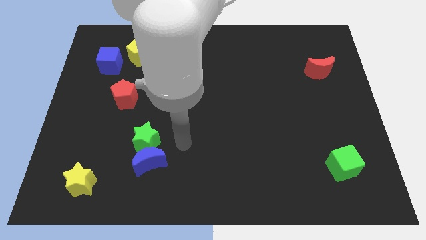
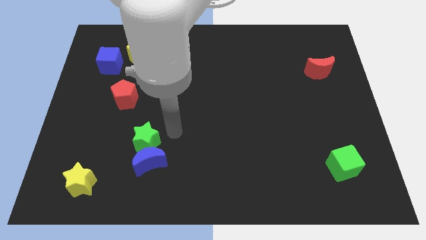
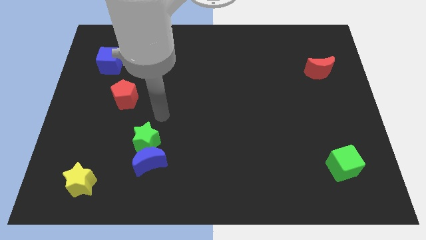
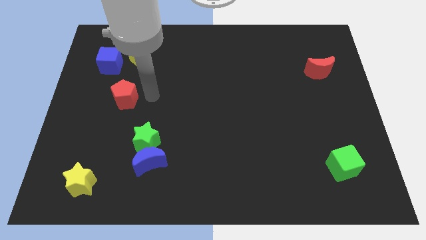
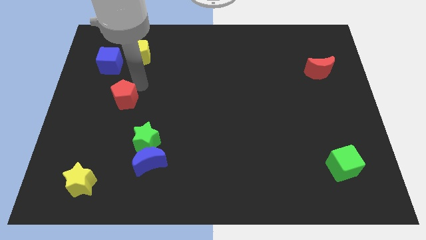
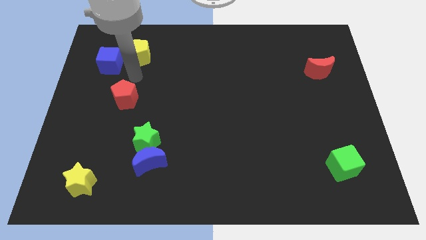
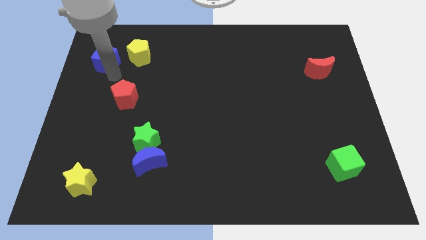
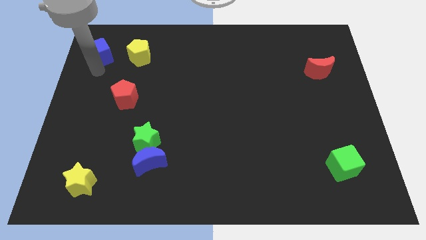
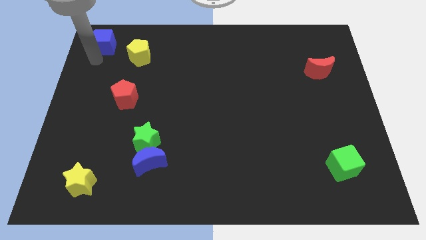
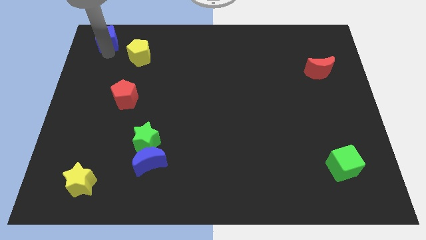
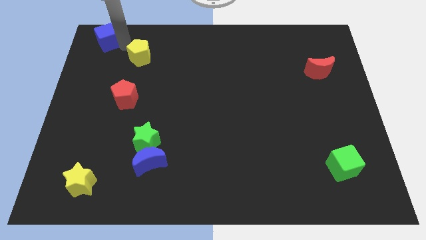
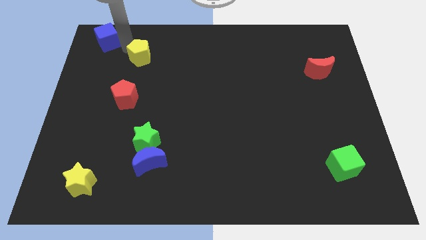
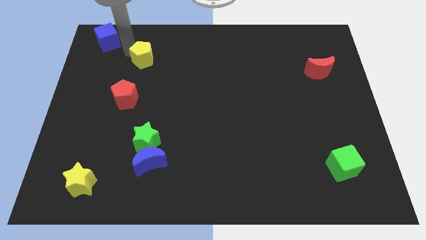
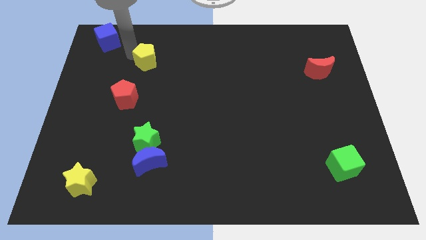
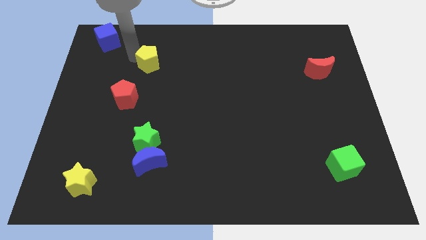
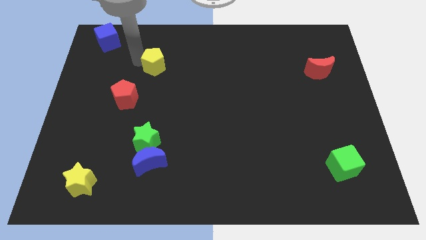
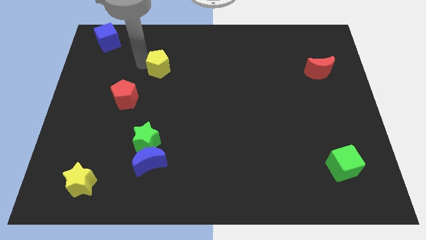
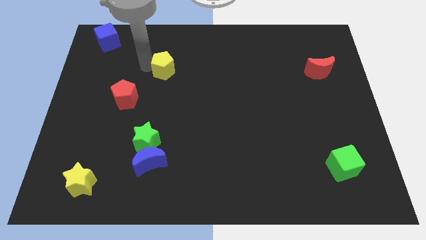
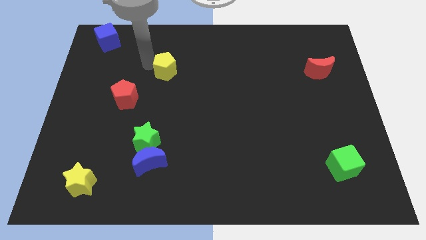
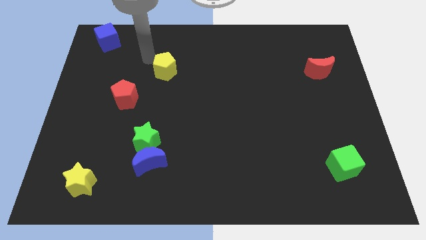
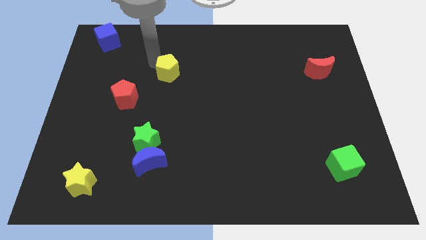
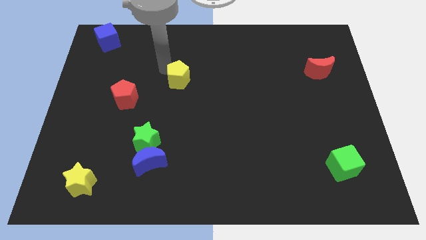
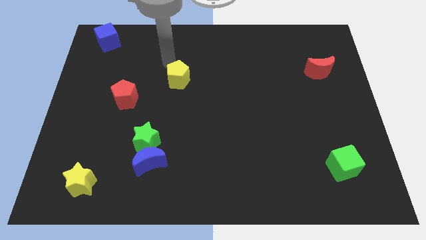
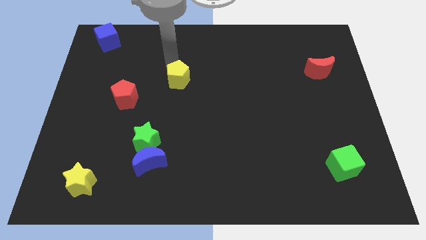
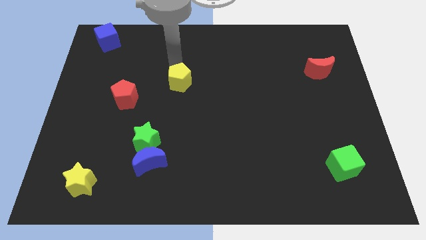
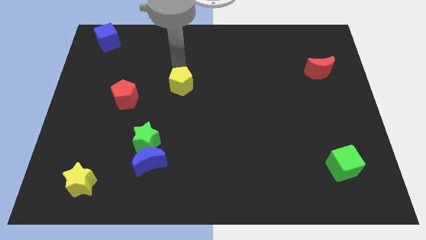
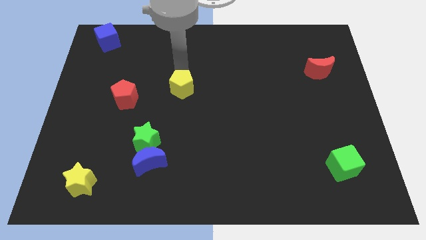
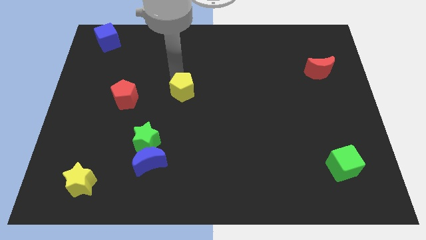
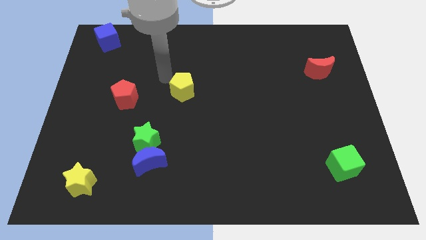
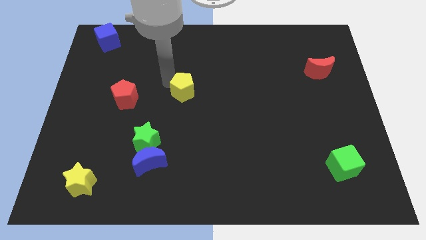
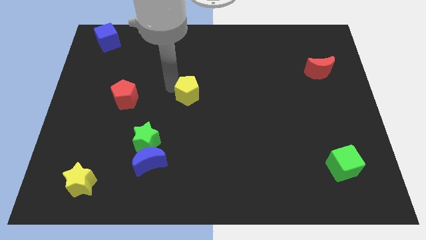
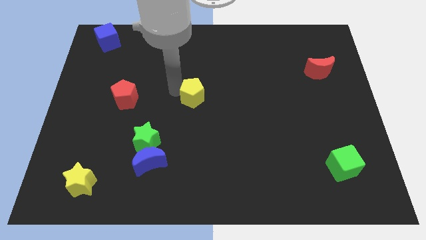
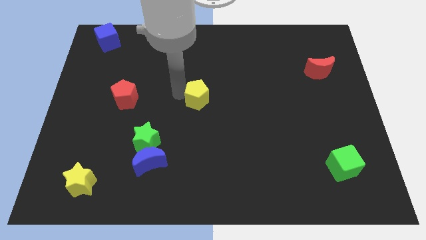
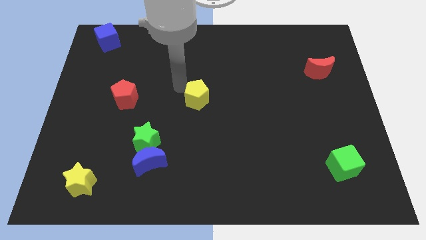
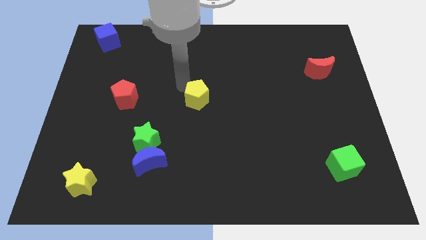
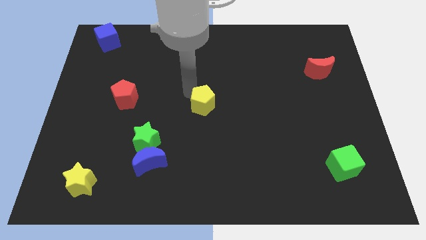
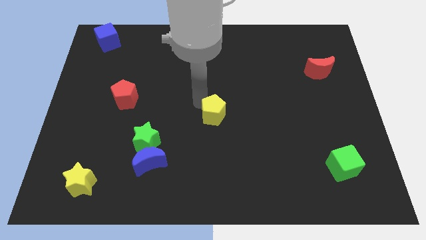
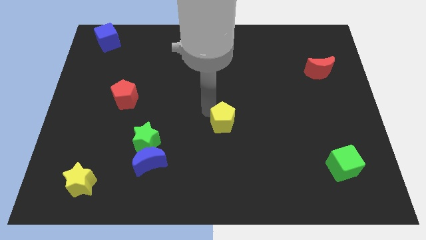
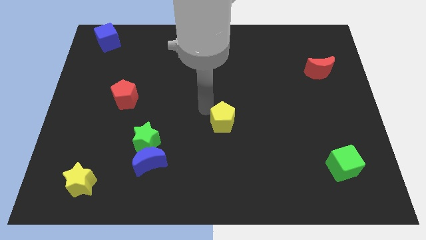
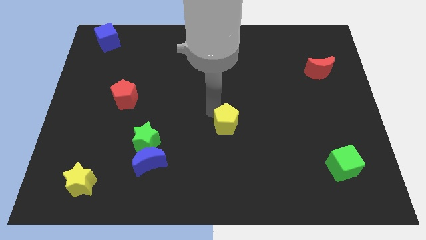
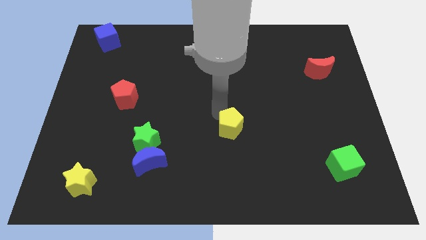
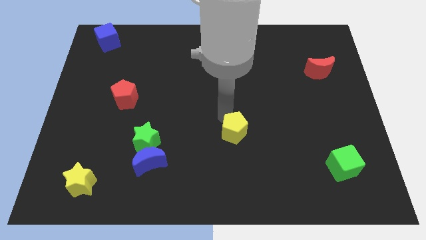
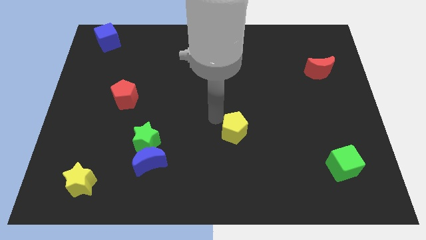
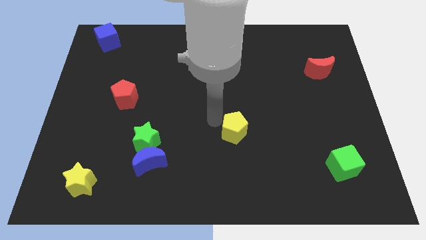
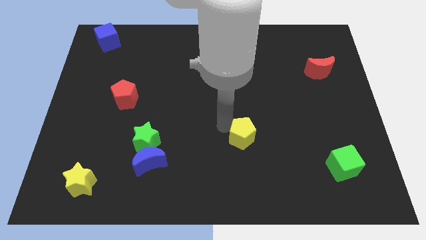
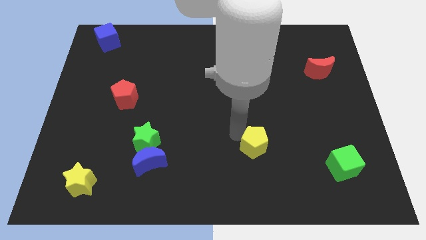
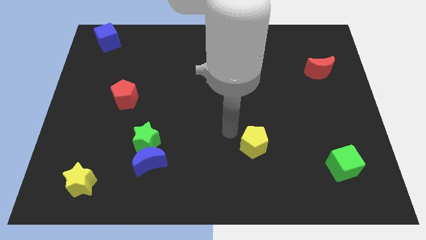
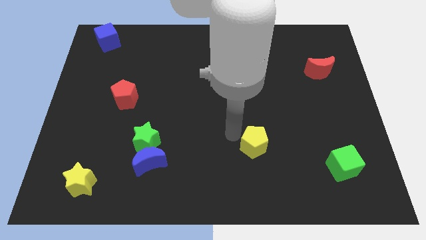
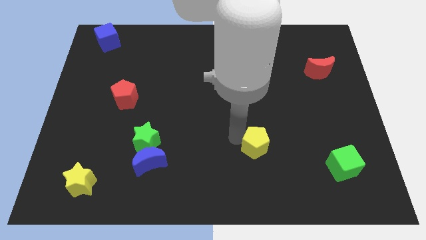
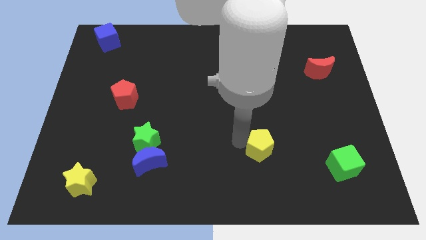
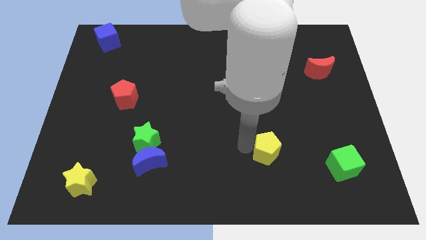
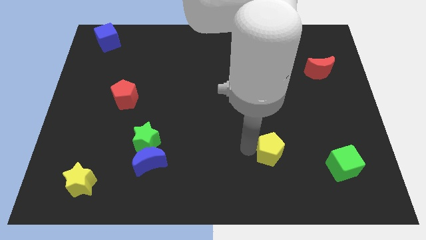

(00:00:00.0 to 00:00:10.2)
push the yellow pentagon just left of the green cube

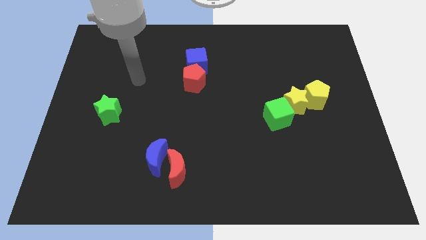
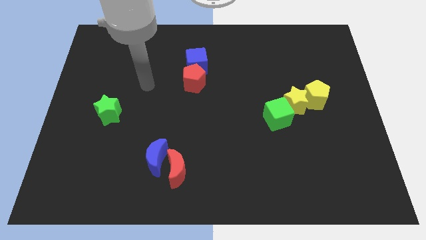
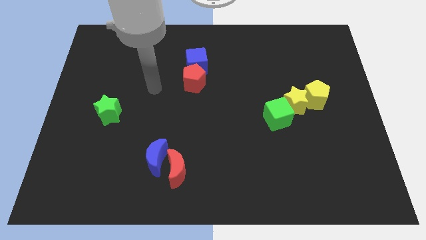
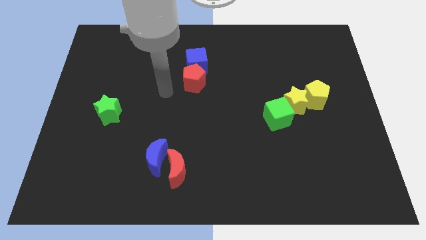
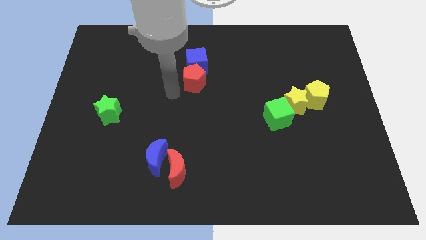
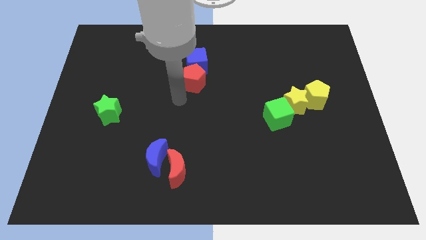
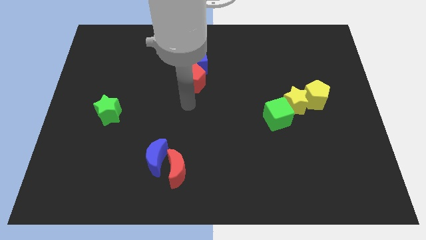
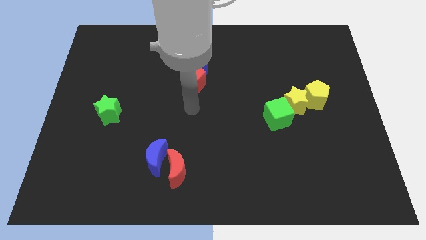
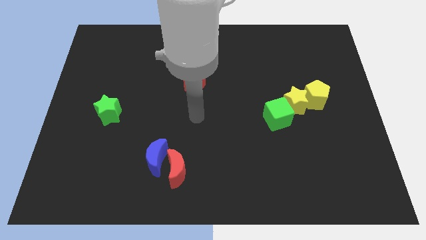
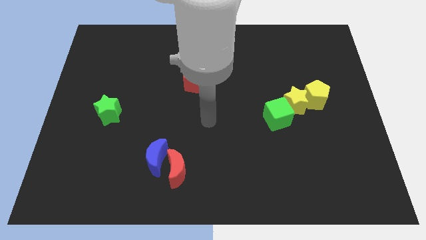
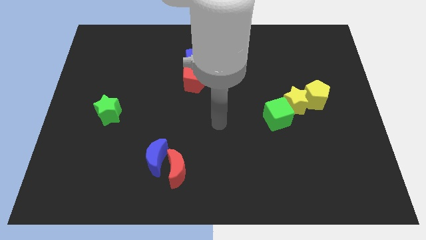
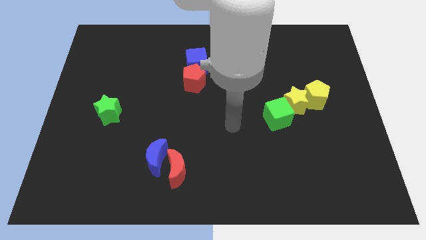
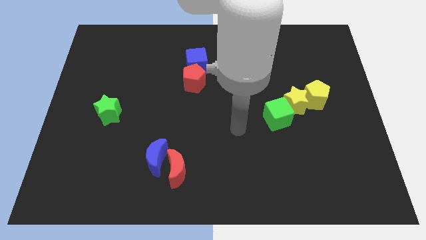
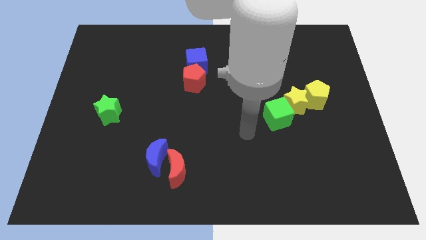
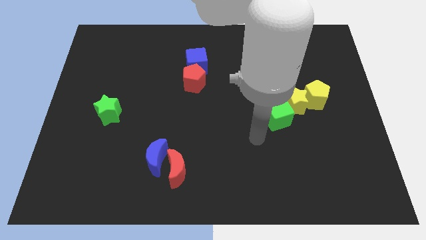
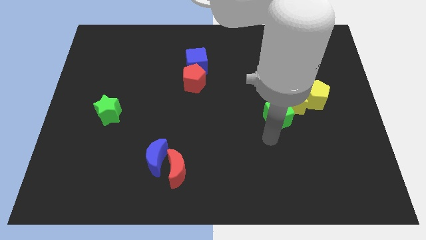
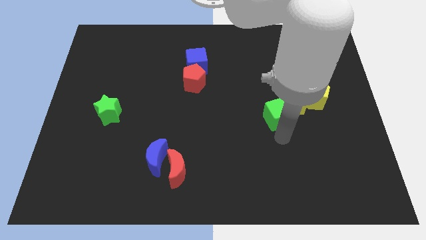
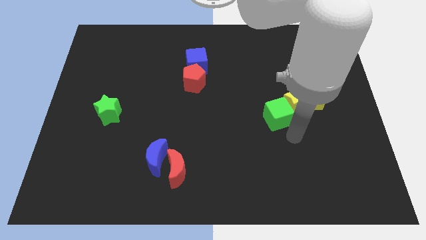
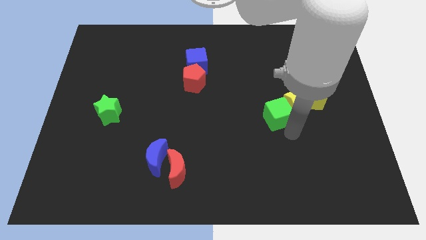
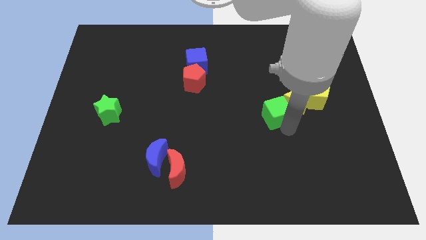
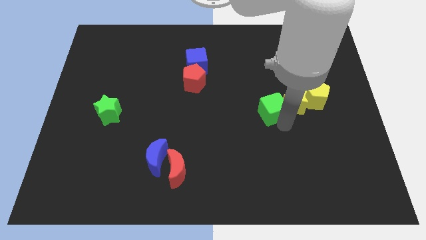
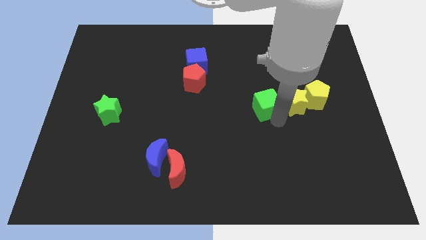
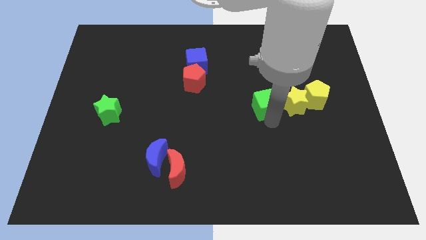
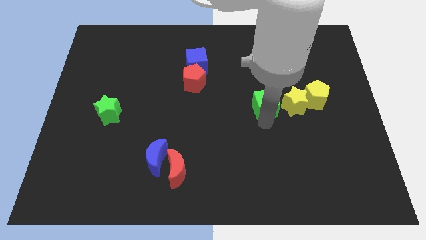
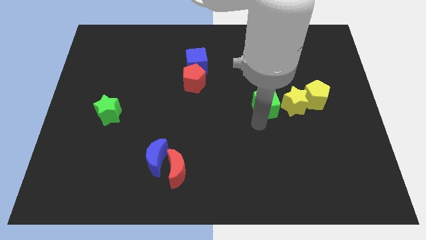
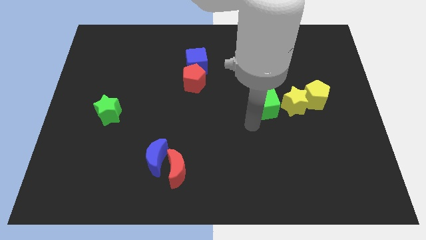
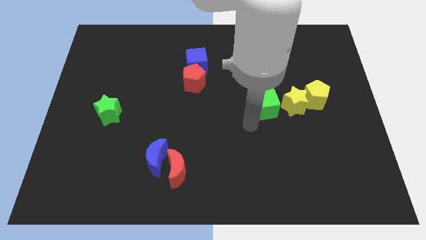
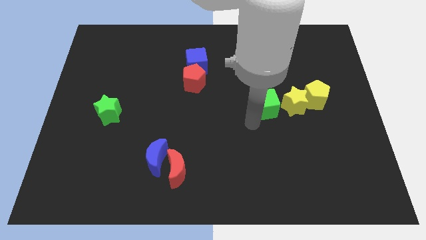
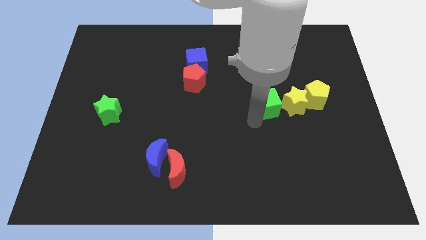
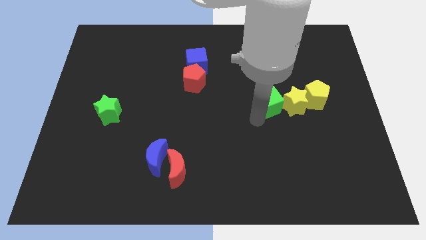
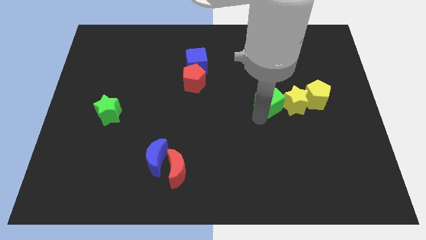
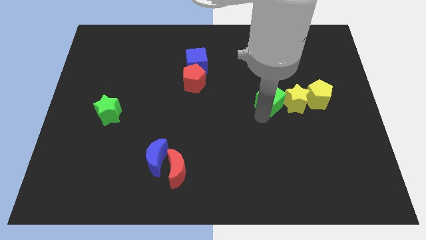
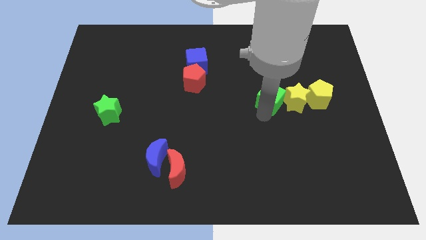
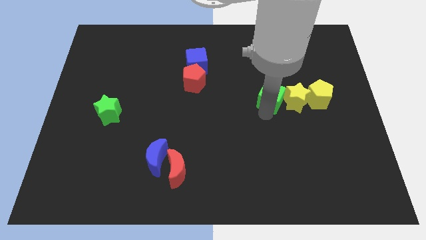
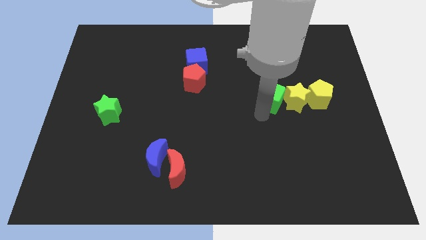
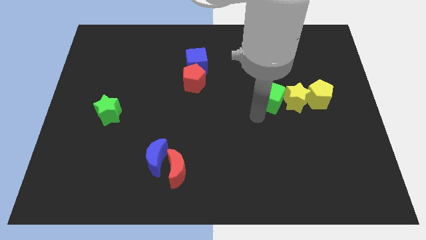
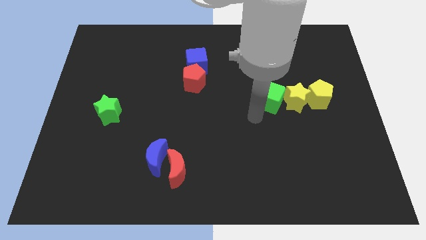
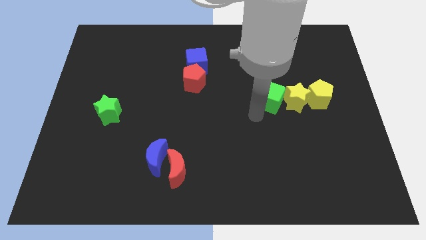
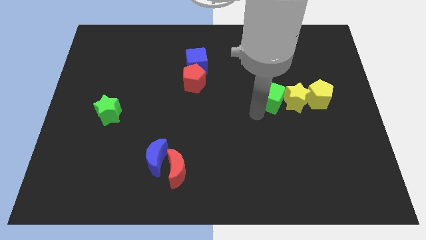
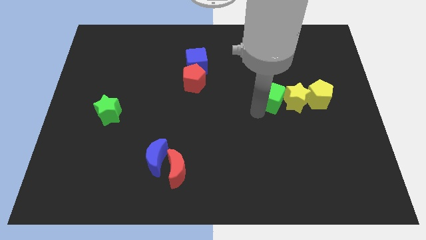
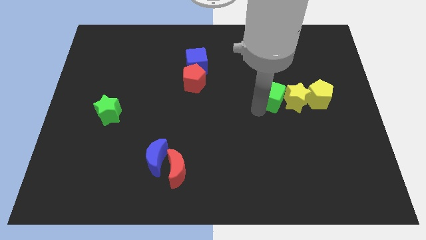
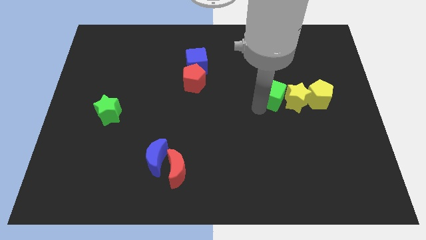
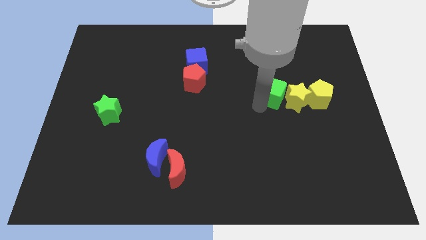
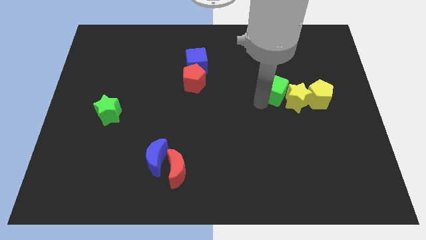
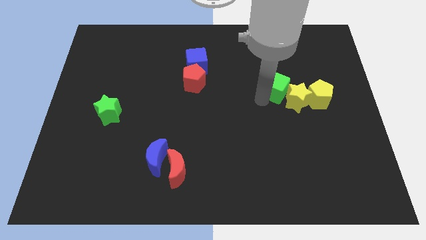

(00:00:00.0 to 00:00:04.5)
slide the green cube to the top of the yellow star
